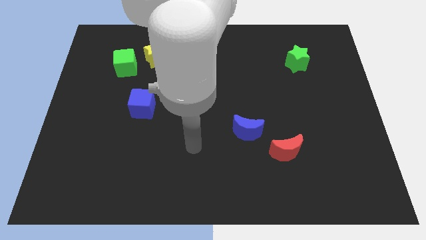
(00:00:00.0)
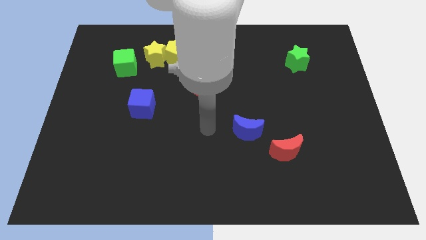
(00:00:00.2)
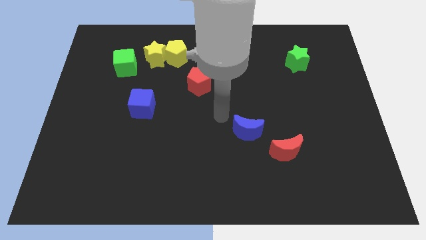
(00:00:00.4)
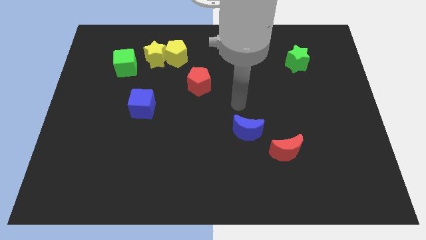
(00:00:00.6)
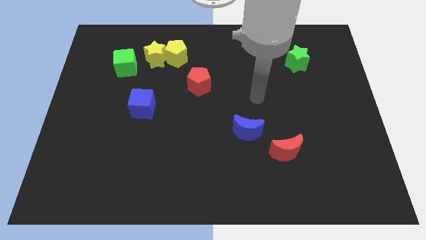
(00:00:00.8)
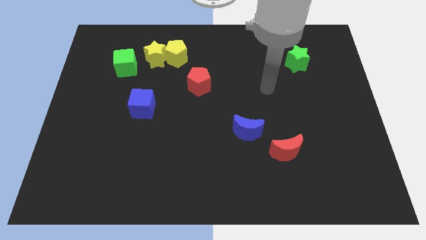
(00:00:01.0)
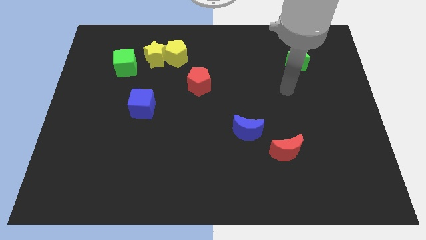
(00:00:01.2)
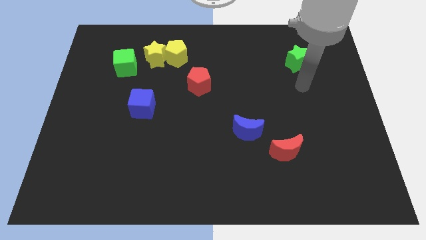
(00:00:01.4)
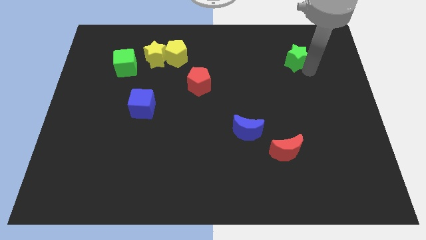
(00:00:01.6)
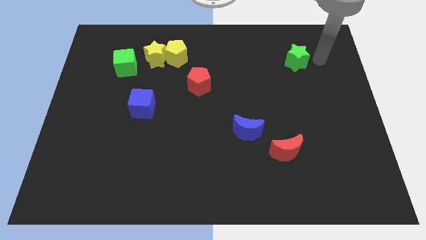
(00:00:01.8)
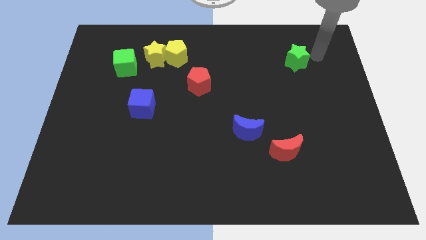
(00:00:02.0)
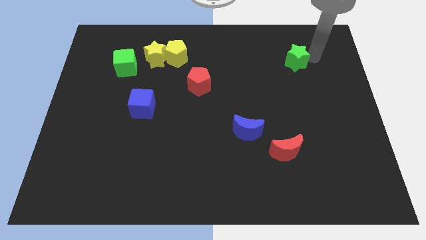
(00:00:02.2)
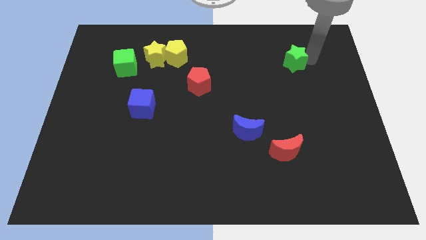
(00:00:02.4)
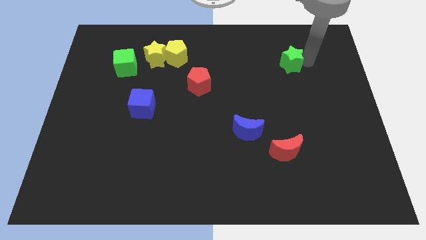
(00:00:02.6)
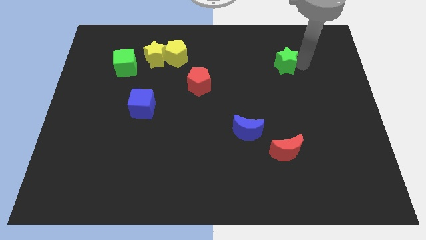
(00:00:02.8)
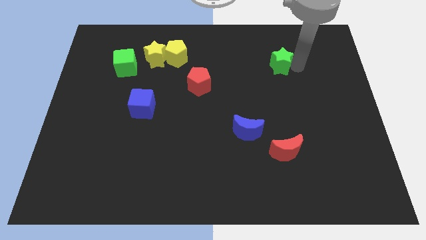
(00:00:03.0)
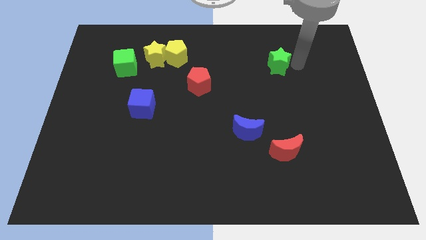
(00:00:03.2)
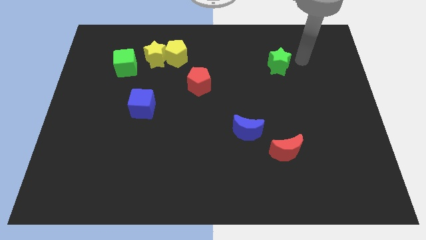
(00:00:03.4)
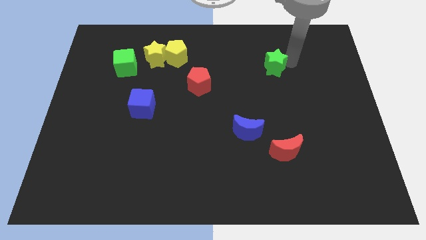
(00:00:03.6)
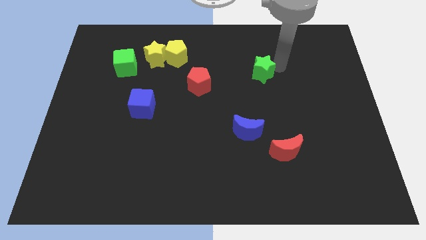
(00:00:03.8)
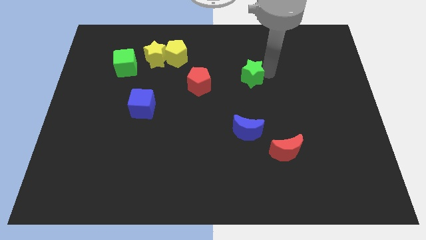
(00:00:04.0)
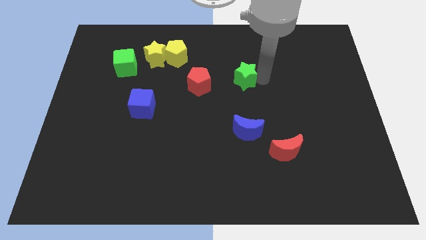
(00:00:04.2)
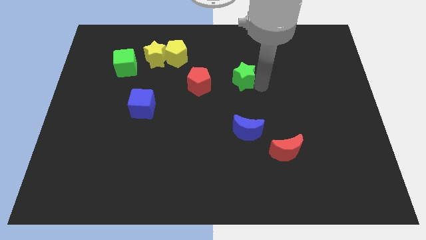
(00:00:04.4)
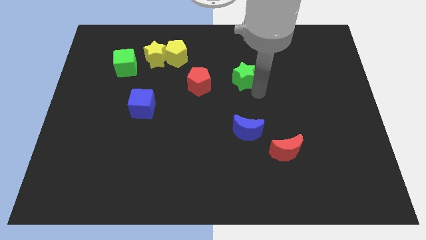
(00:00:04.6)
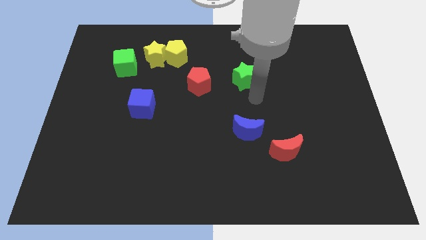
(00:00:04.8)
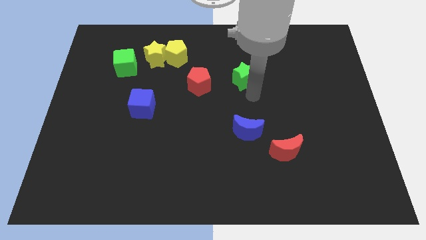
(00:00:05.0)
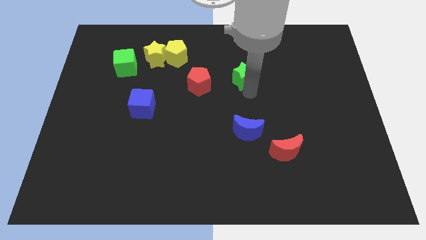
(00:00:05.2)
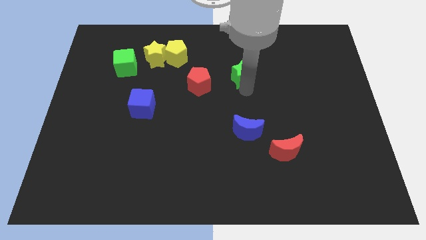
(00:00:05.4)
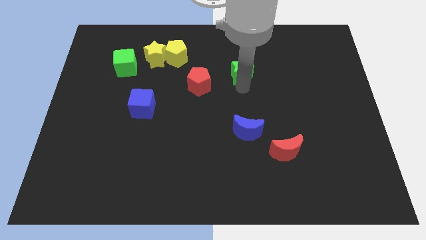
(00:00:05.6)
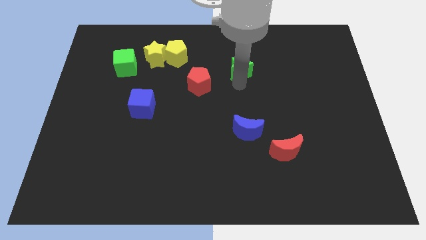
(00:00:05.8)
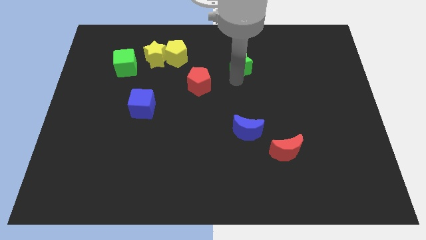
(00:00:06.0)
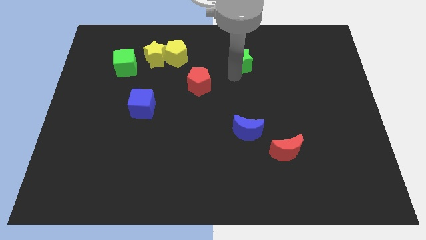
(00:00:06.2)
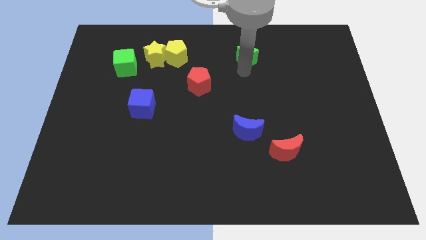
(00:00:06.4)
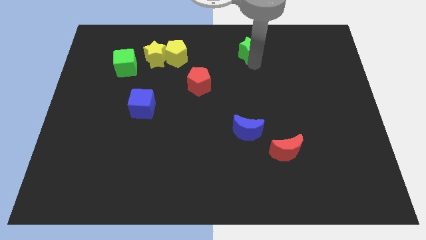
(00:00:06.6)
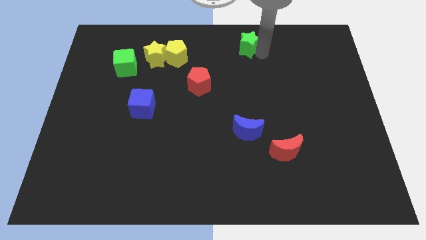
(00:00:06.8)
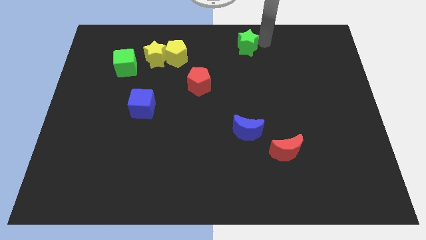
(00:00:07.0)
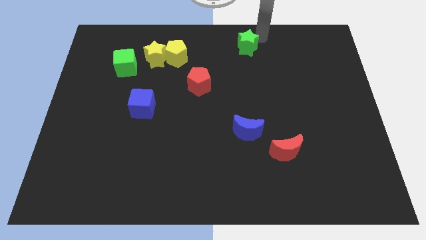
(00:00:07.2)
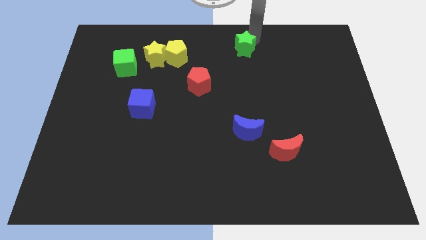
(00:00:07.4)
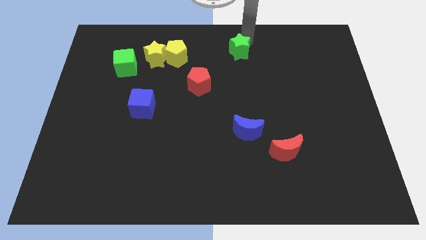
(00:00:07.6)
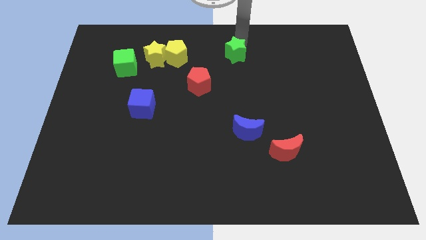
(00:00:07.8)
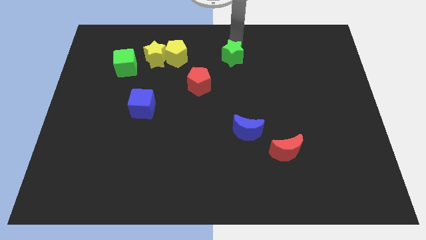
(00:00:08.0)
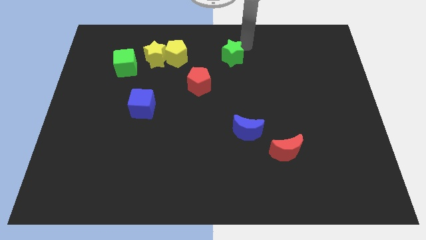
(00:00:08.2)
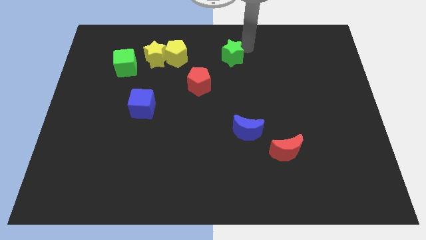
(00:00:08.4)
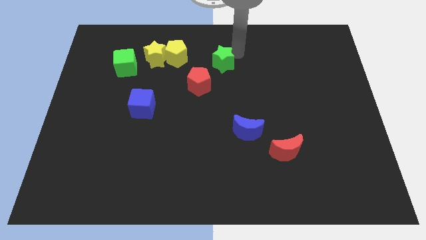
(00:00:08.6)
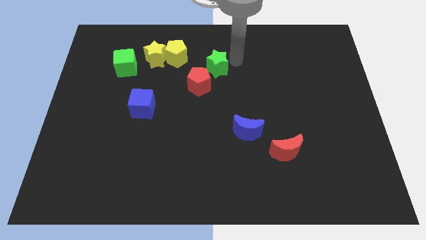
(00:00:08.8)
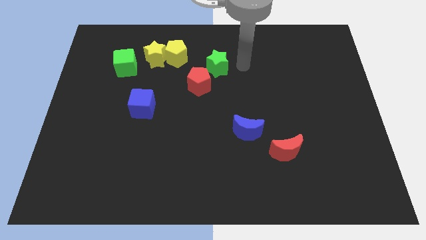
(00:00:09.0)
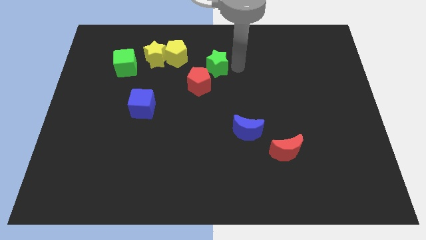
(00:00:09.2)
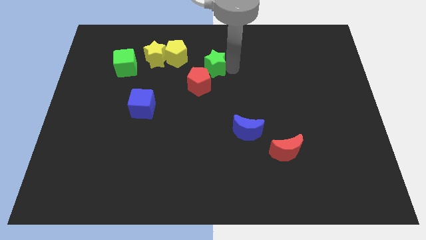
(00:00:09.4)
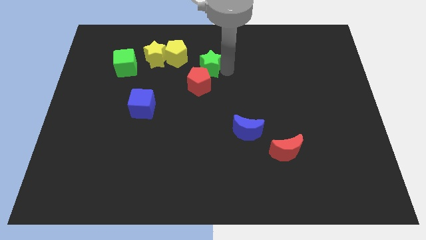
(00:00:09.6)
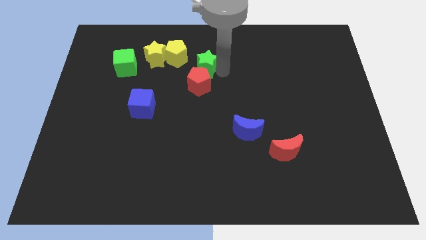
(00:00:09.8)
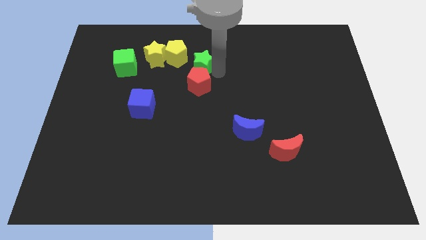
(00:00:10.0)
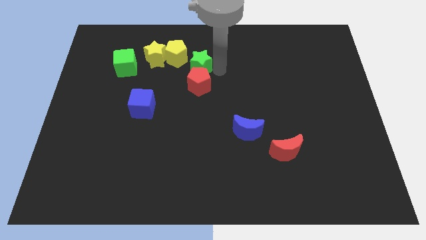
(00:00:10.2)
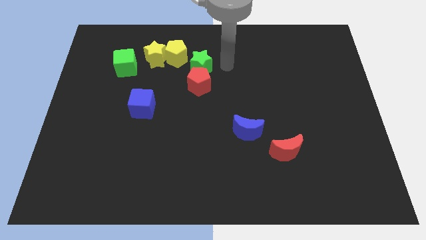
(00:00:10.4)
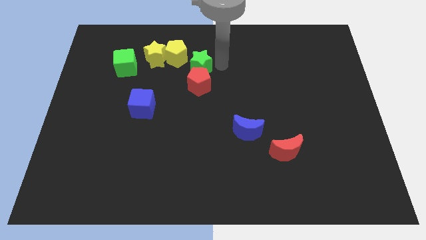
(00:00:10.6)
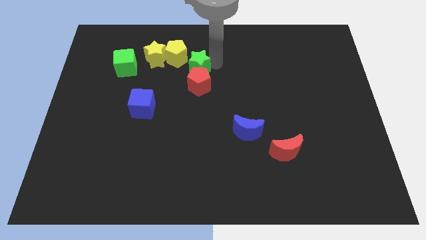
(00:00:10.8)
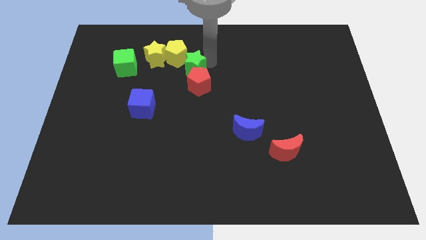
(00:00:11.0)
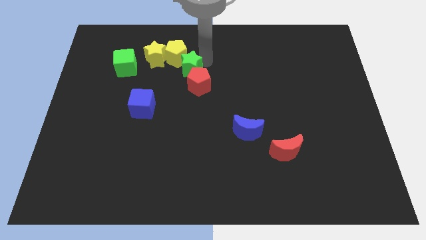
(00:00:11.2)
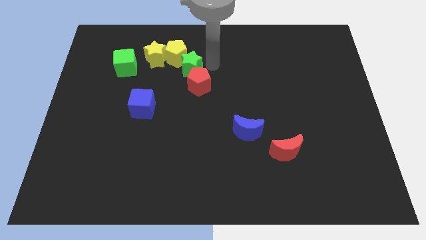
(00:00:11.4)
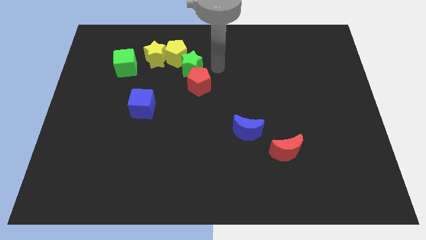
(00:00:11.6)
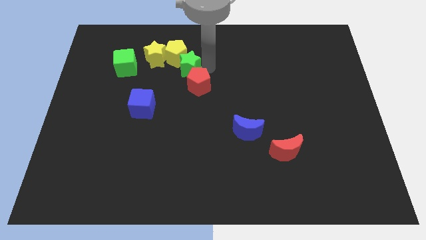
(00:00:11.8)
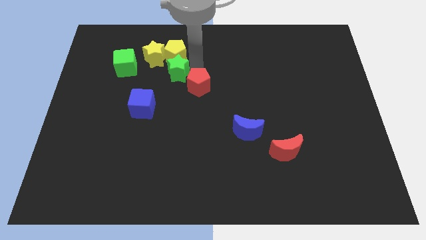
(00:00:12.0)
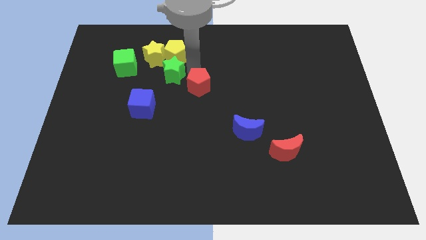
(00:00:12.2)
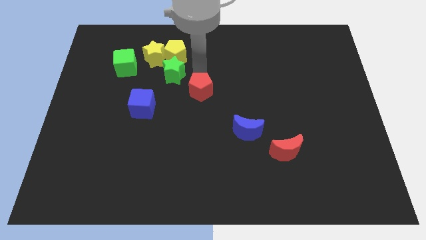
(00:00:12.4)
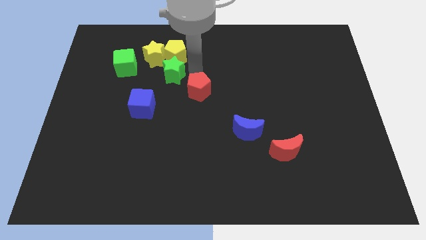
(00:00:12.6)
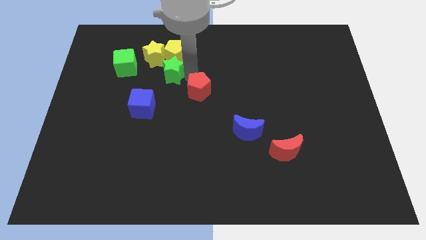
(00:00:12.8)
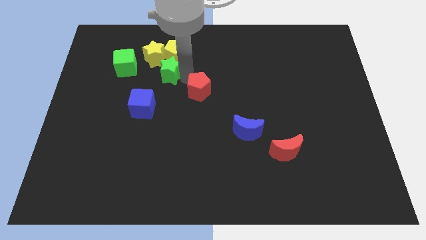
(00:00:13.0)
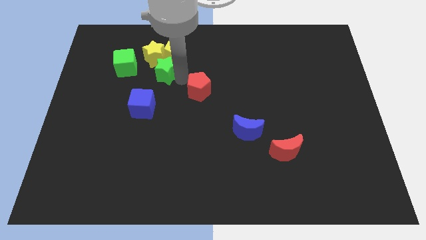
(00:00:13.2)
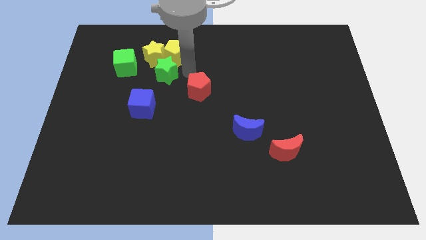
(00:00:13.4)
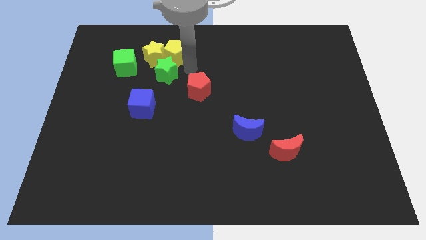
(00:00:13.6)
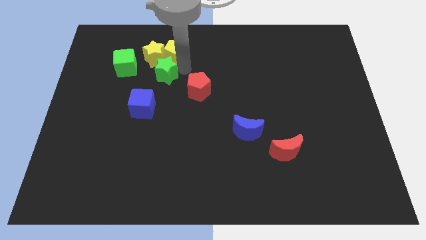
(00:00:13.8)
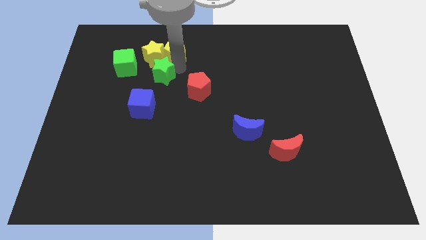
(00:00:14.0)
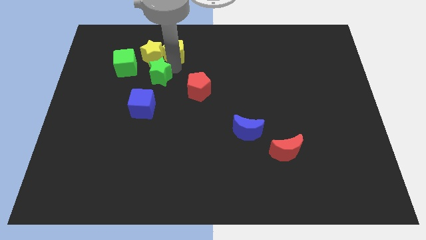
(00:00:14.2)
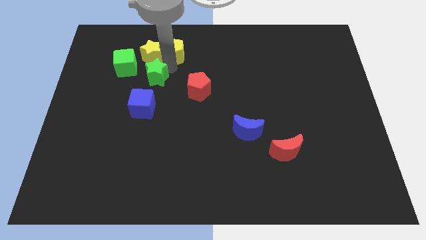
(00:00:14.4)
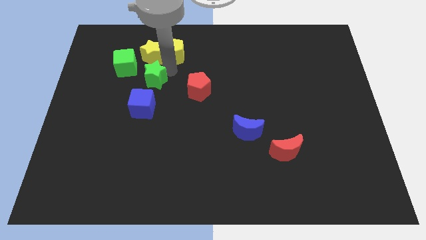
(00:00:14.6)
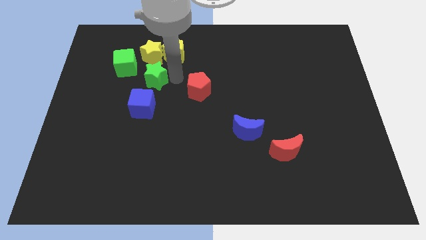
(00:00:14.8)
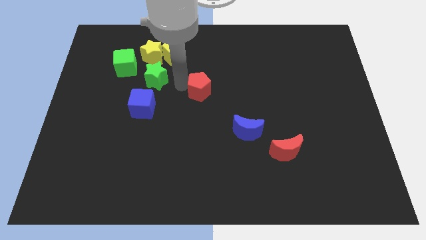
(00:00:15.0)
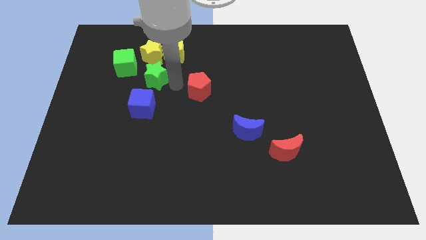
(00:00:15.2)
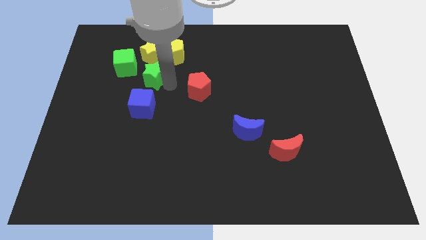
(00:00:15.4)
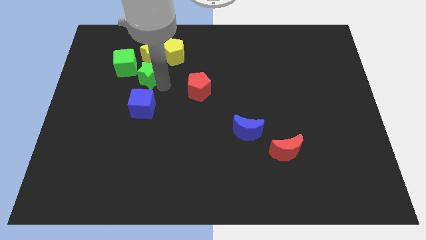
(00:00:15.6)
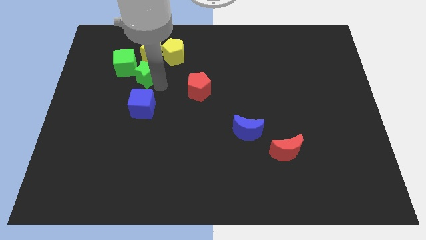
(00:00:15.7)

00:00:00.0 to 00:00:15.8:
move the green star diagonally down and to the left of the yellow star
